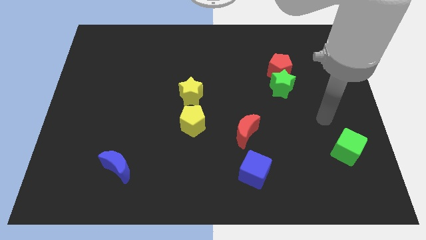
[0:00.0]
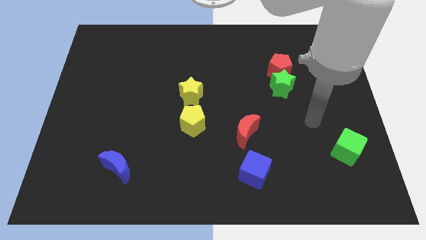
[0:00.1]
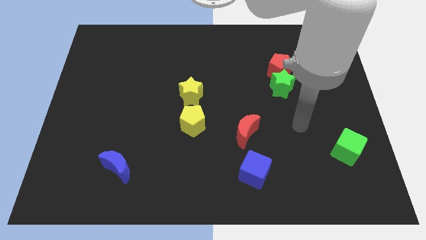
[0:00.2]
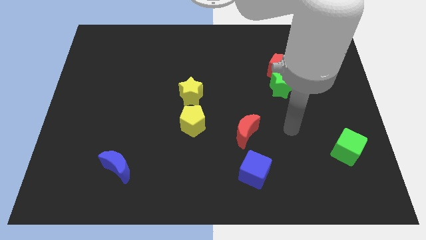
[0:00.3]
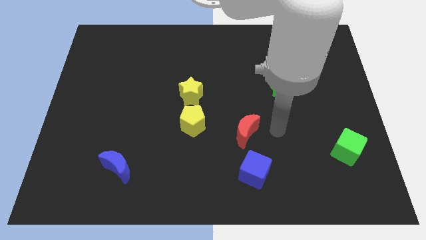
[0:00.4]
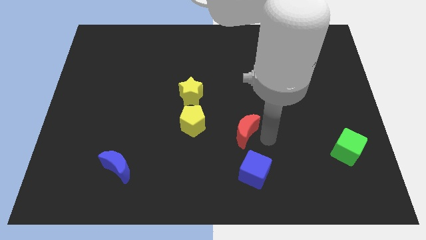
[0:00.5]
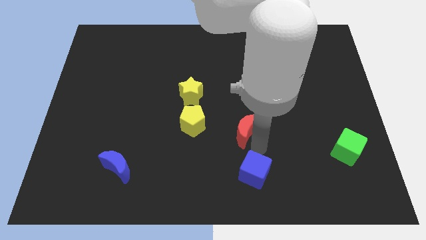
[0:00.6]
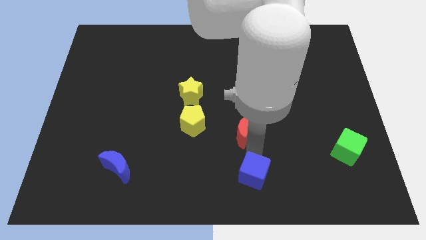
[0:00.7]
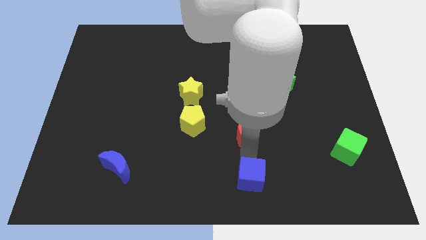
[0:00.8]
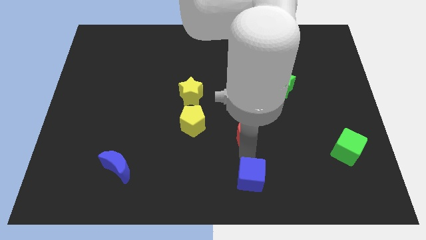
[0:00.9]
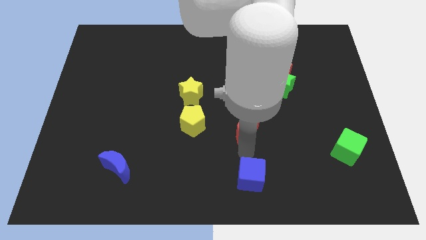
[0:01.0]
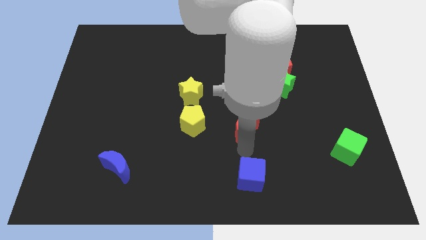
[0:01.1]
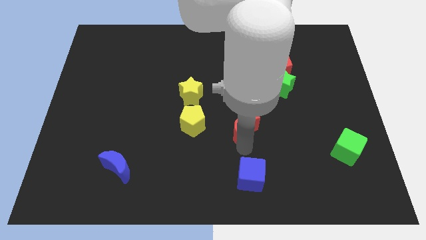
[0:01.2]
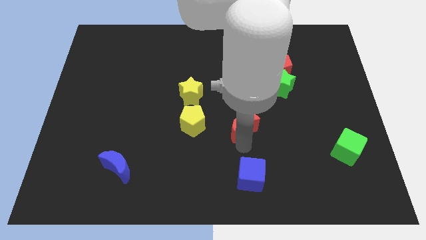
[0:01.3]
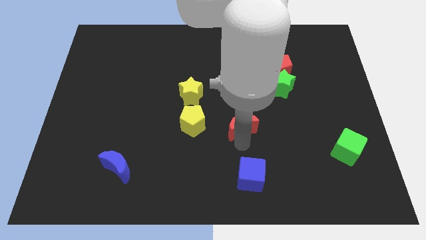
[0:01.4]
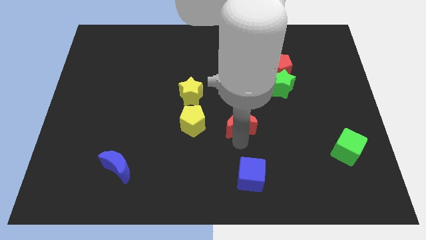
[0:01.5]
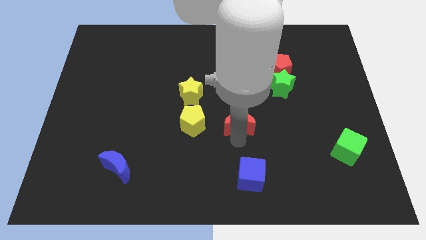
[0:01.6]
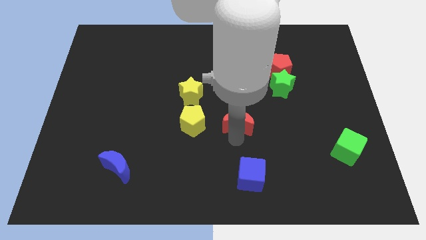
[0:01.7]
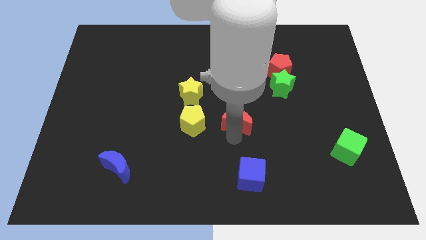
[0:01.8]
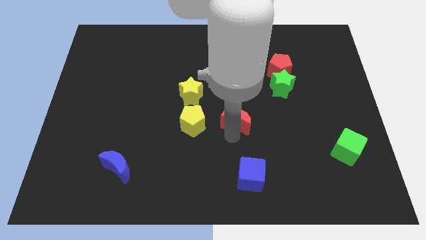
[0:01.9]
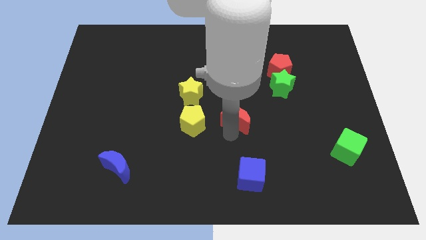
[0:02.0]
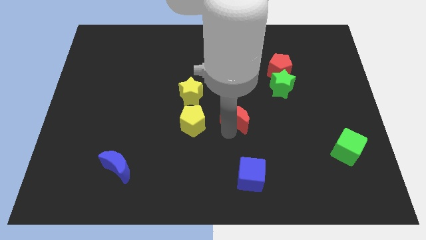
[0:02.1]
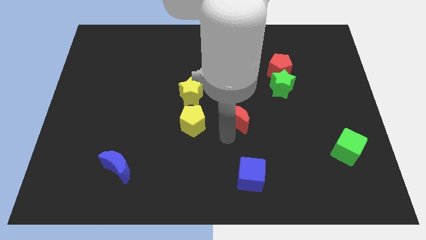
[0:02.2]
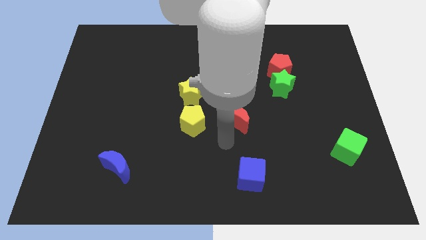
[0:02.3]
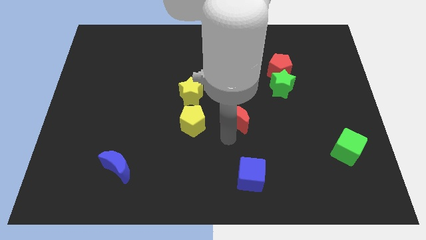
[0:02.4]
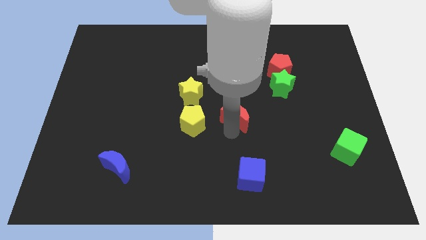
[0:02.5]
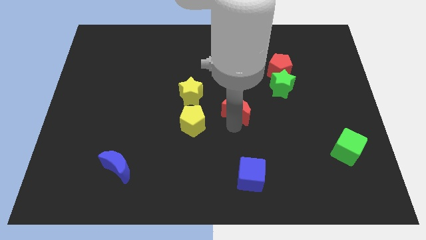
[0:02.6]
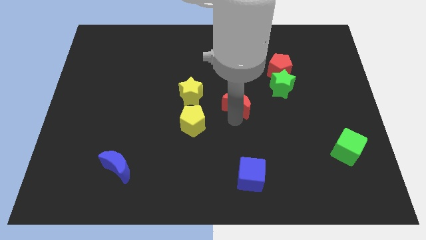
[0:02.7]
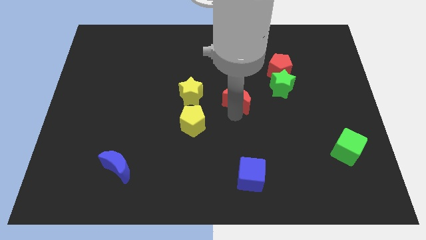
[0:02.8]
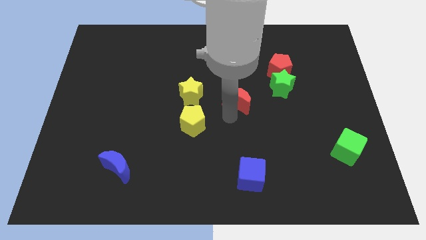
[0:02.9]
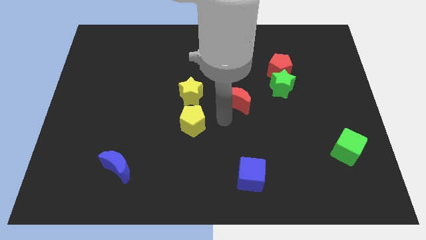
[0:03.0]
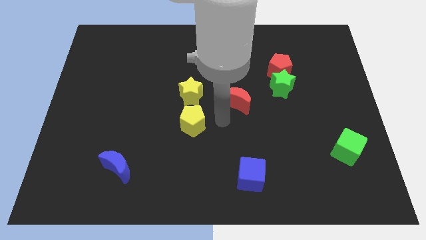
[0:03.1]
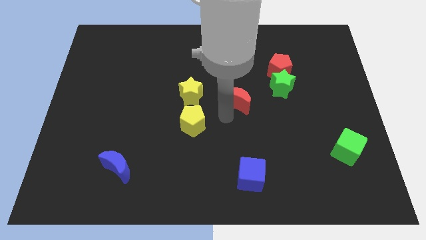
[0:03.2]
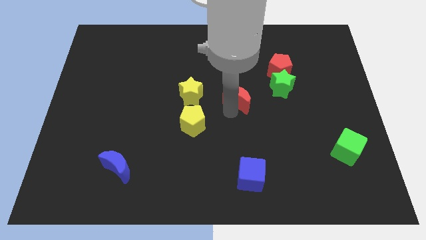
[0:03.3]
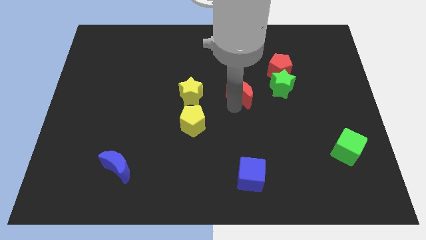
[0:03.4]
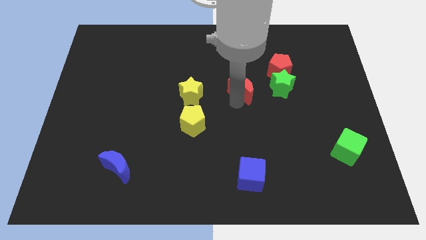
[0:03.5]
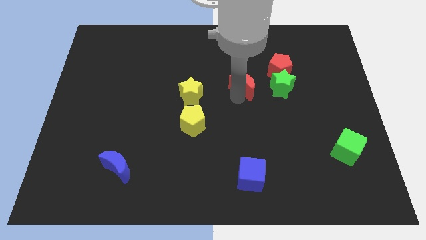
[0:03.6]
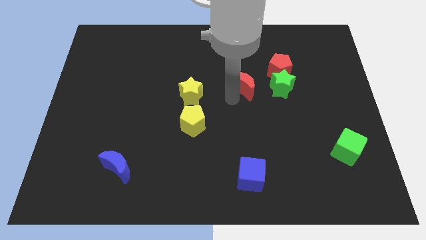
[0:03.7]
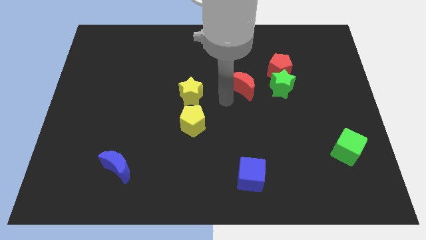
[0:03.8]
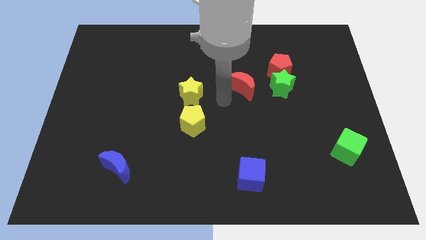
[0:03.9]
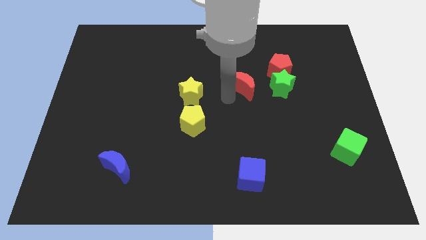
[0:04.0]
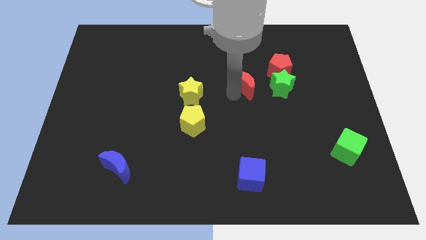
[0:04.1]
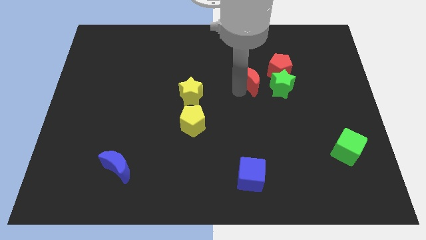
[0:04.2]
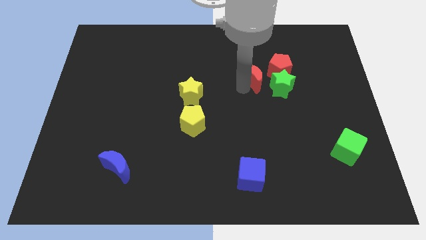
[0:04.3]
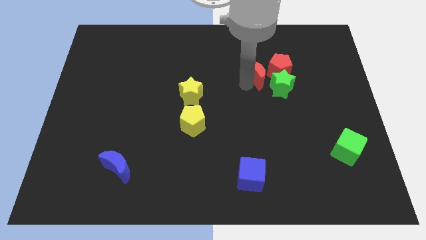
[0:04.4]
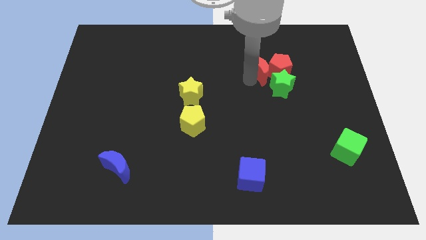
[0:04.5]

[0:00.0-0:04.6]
slide the red moon close to the red pentagon

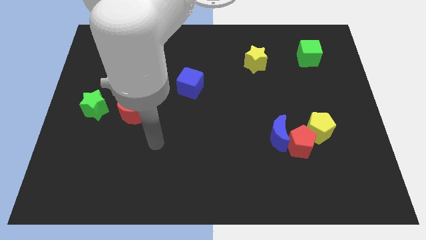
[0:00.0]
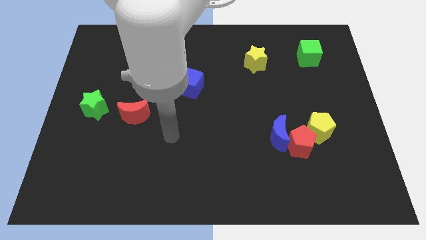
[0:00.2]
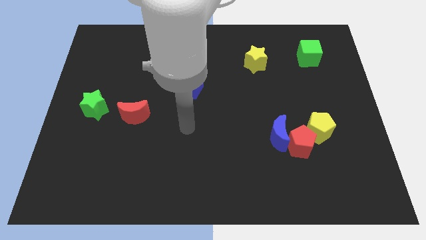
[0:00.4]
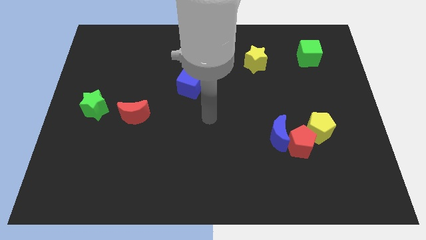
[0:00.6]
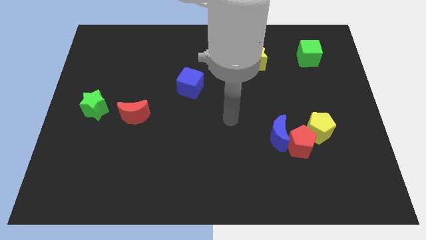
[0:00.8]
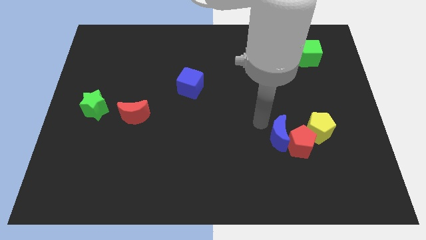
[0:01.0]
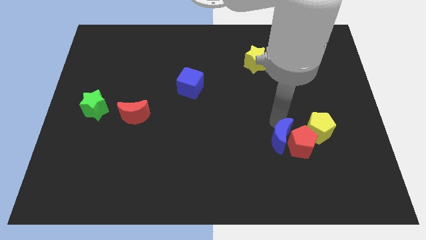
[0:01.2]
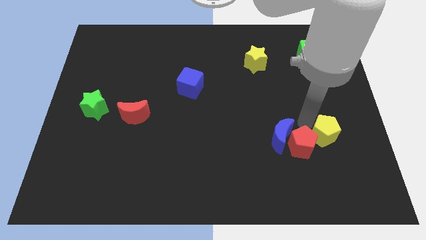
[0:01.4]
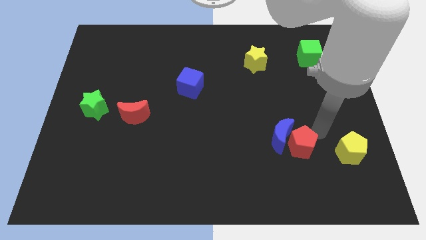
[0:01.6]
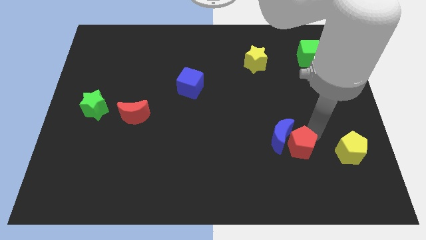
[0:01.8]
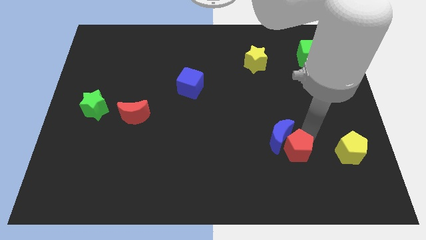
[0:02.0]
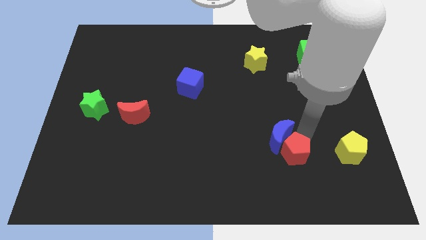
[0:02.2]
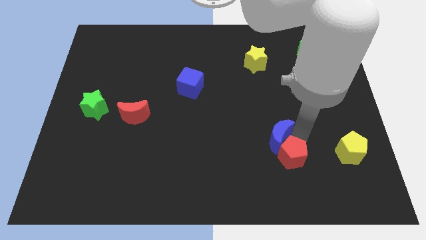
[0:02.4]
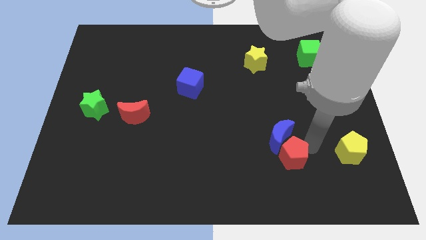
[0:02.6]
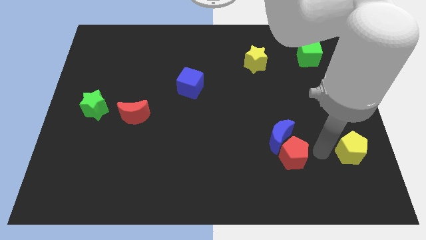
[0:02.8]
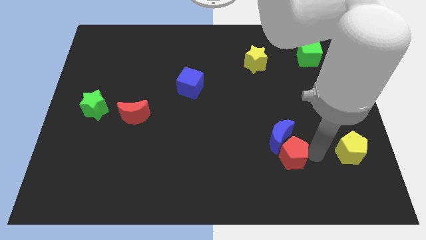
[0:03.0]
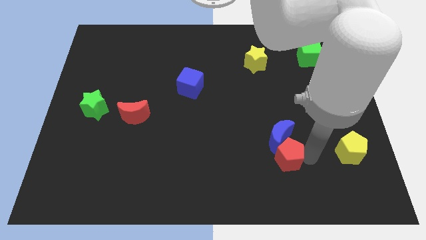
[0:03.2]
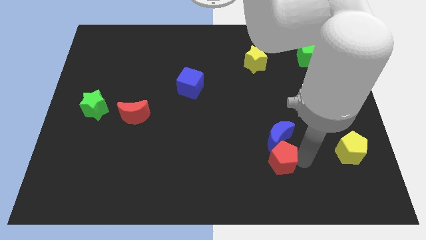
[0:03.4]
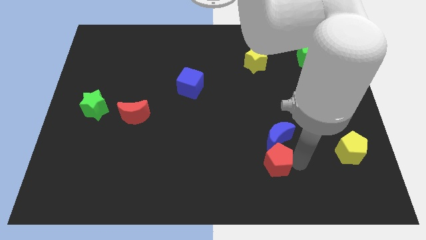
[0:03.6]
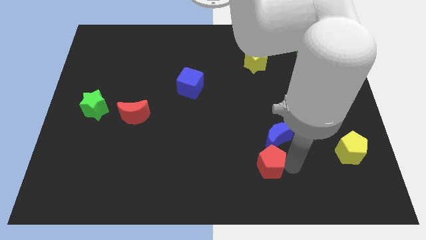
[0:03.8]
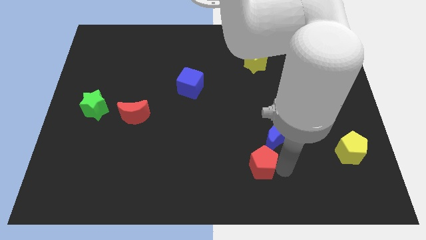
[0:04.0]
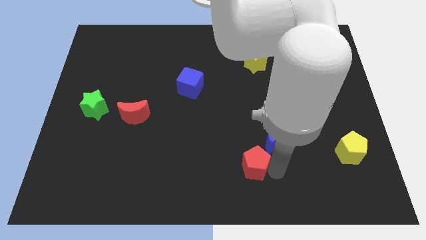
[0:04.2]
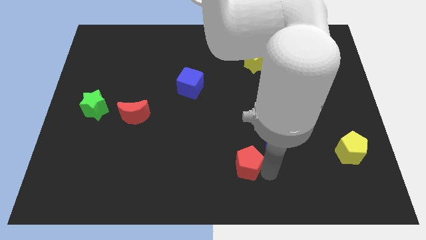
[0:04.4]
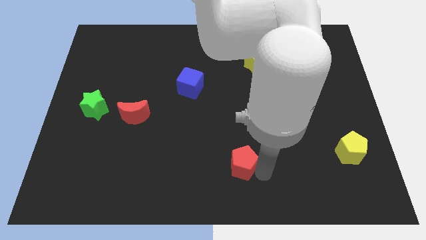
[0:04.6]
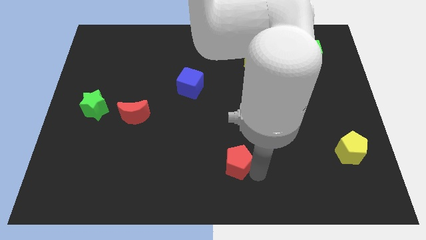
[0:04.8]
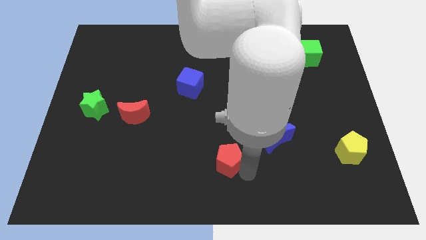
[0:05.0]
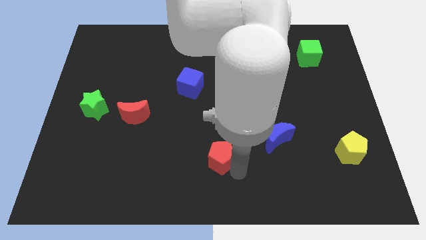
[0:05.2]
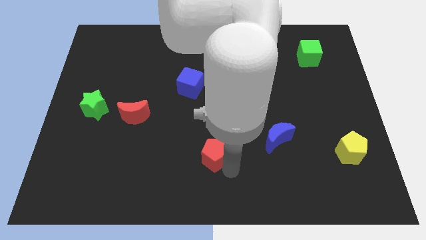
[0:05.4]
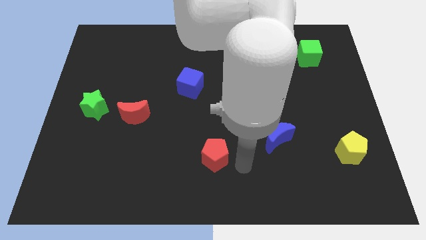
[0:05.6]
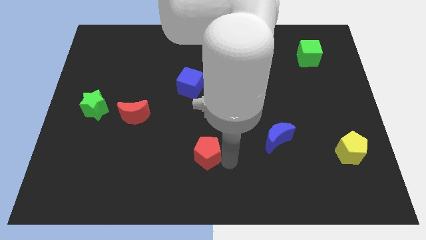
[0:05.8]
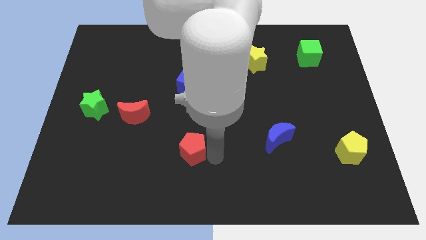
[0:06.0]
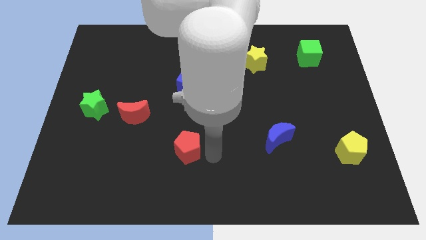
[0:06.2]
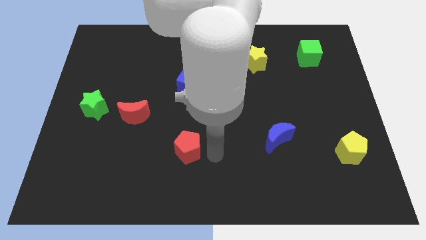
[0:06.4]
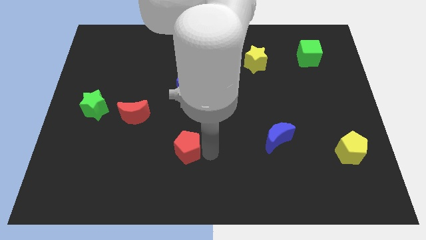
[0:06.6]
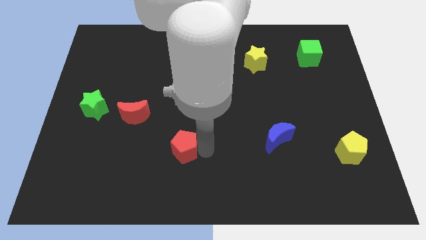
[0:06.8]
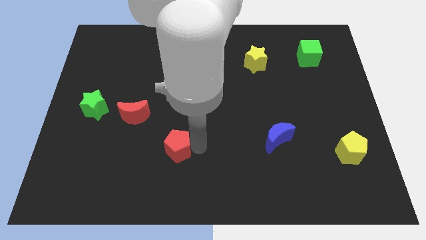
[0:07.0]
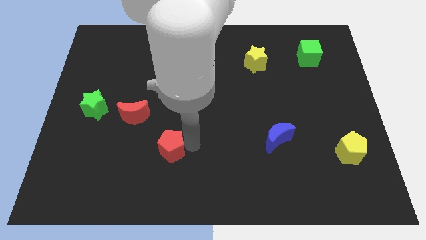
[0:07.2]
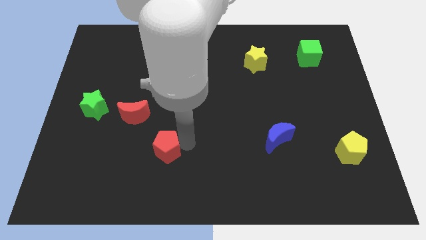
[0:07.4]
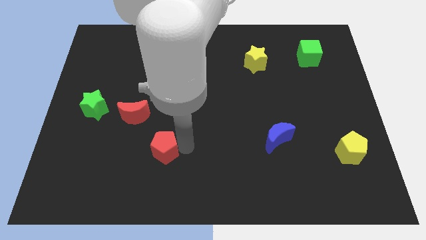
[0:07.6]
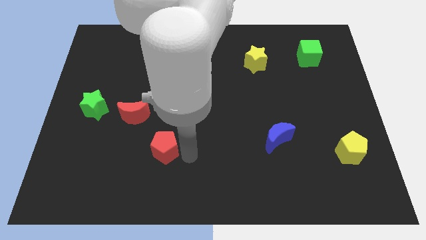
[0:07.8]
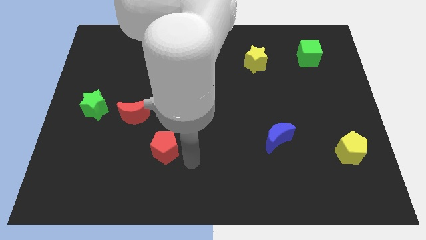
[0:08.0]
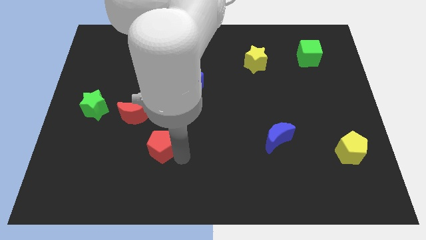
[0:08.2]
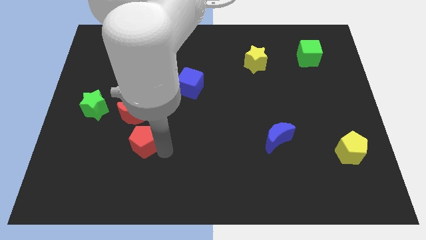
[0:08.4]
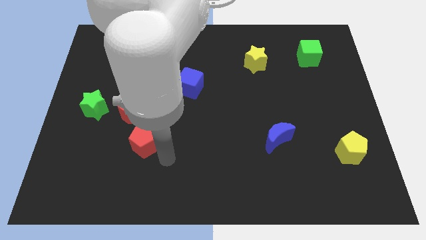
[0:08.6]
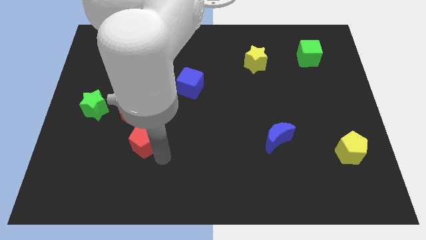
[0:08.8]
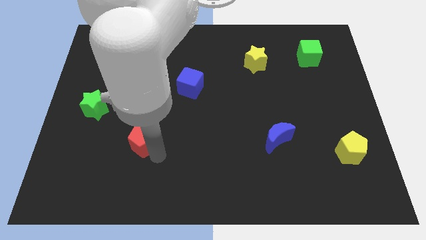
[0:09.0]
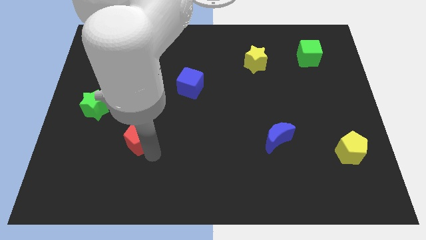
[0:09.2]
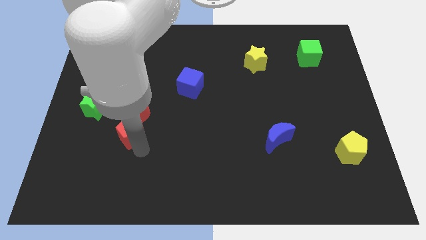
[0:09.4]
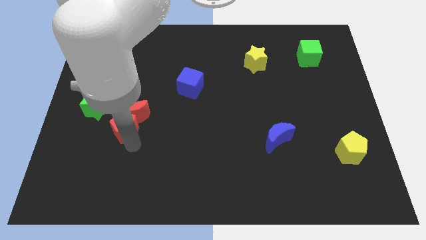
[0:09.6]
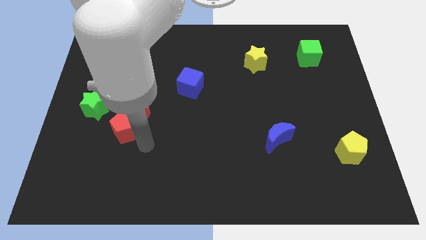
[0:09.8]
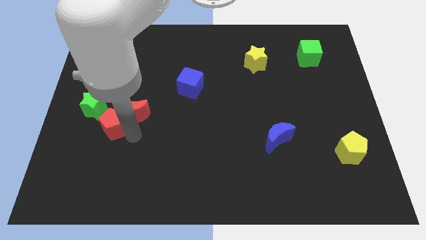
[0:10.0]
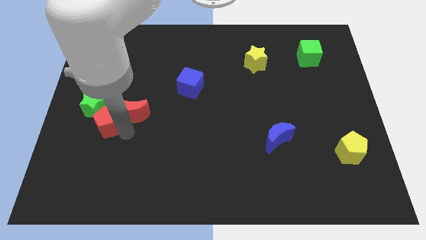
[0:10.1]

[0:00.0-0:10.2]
put the red pentagon next to the green star
